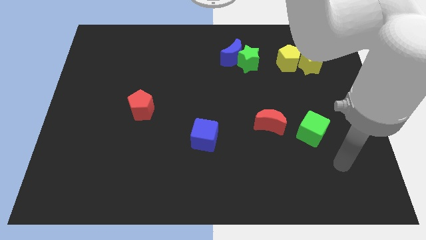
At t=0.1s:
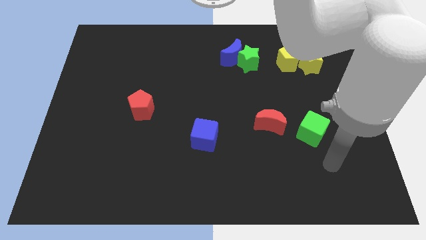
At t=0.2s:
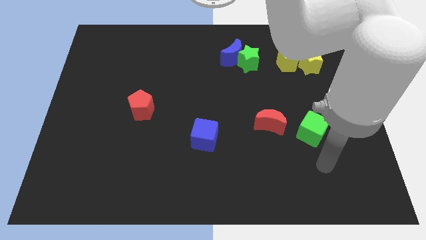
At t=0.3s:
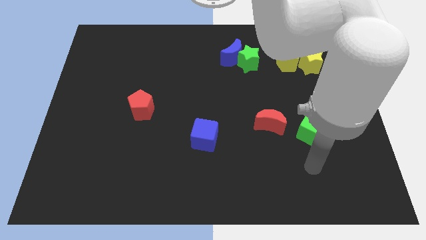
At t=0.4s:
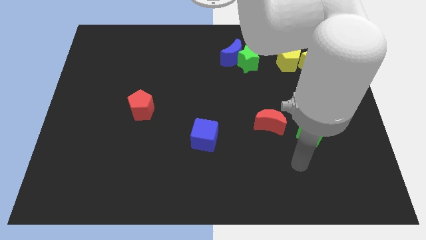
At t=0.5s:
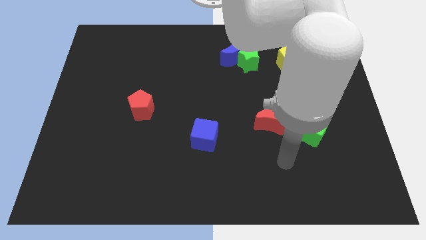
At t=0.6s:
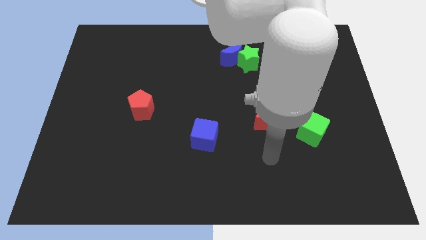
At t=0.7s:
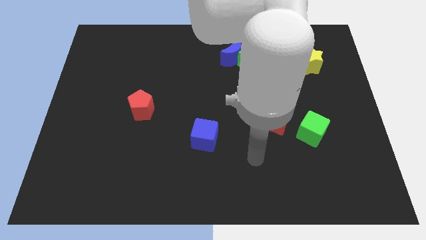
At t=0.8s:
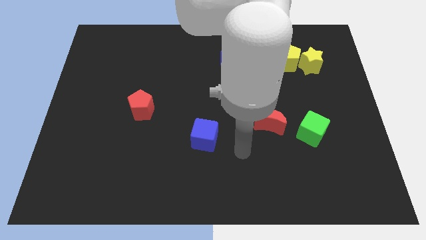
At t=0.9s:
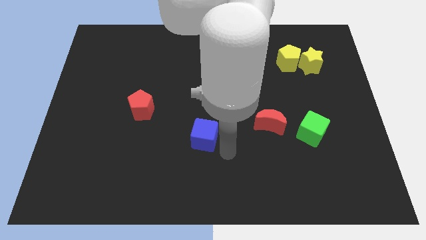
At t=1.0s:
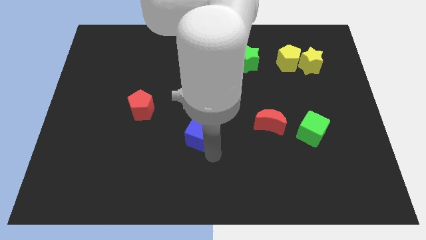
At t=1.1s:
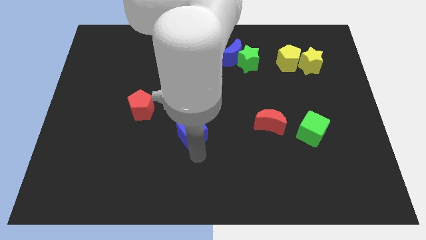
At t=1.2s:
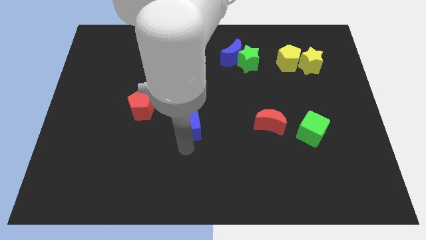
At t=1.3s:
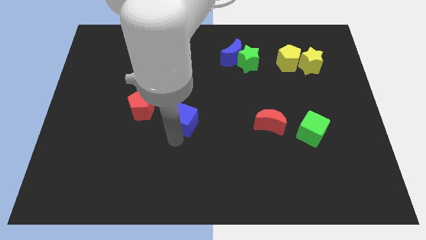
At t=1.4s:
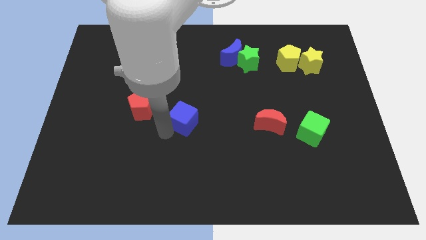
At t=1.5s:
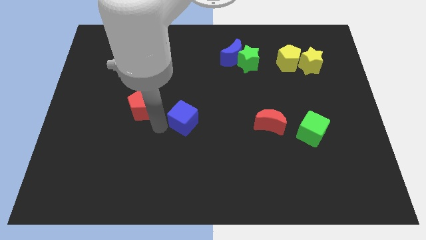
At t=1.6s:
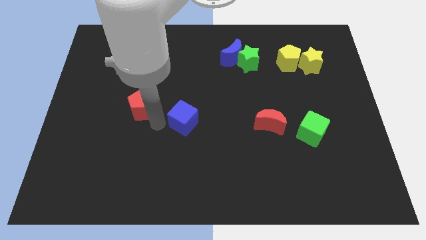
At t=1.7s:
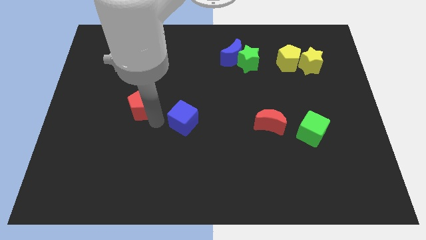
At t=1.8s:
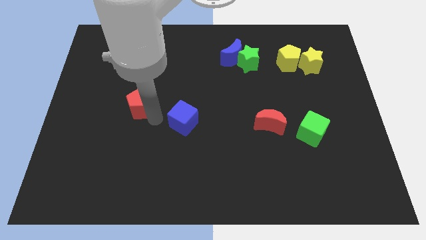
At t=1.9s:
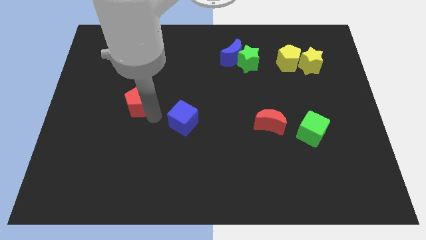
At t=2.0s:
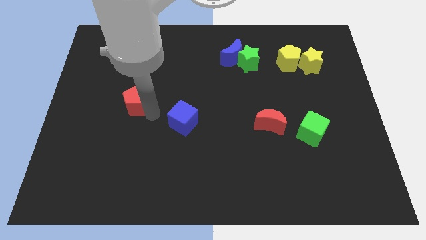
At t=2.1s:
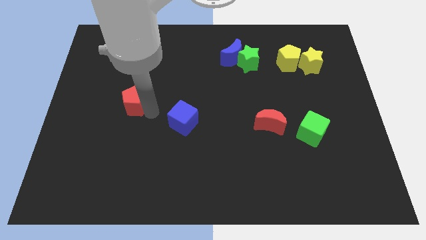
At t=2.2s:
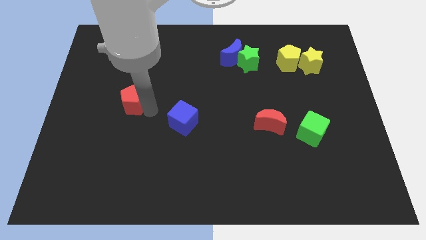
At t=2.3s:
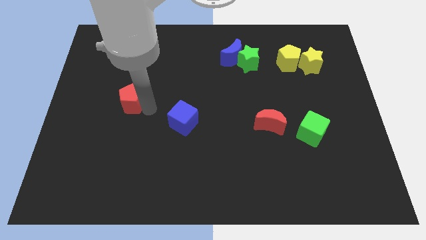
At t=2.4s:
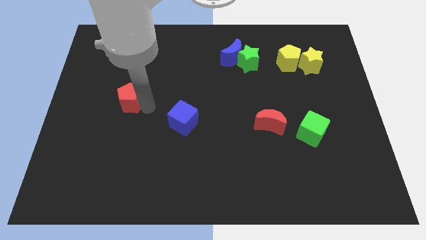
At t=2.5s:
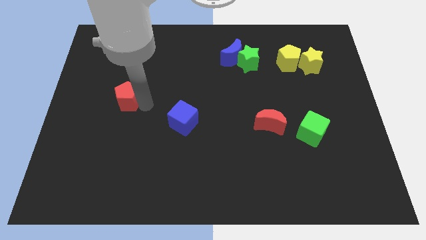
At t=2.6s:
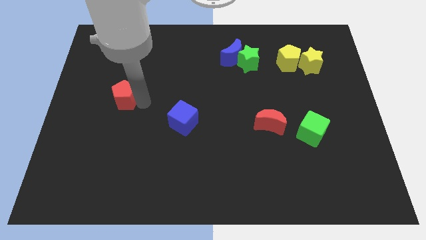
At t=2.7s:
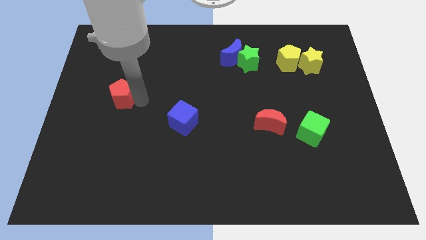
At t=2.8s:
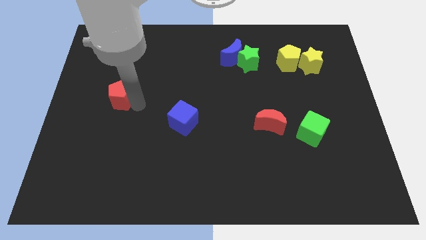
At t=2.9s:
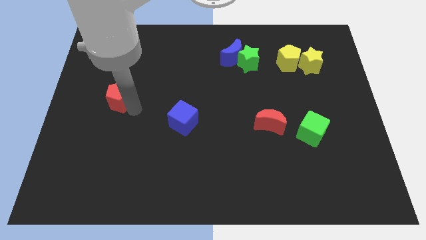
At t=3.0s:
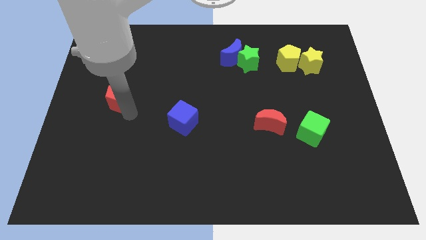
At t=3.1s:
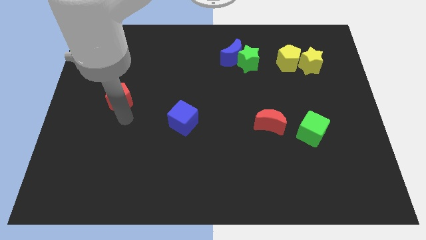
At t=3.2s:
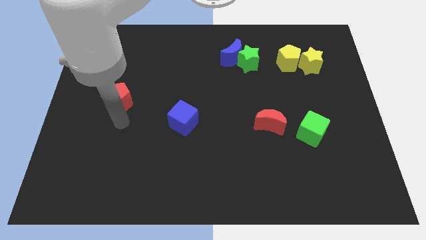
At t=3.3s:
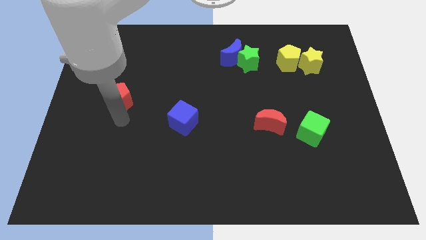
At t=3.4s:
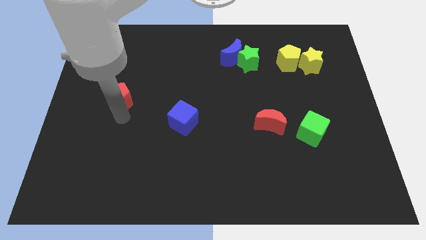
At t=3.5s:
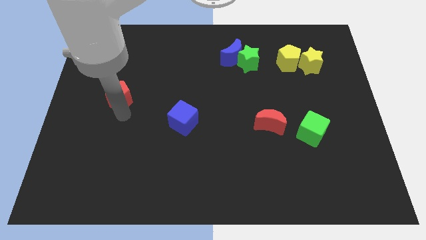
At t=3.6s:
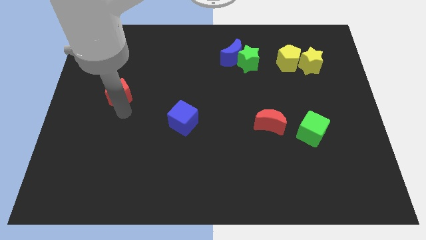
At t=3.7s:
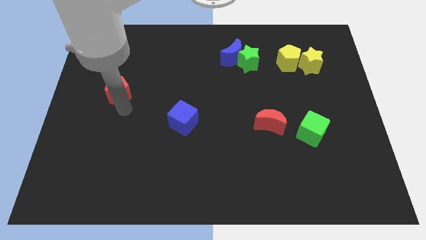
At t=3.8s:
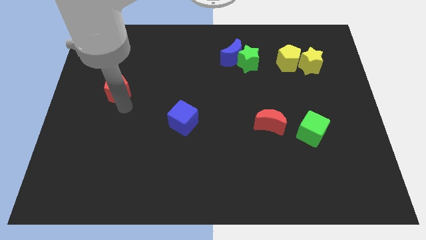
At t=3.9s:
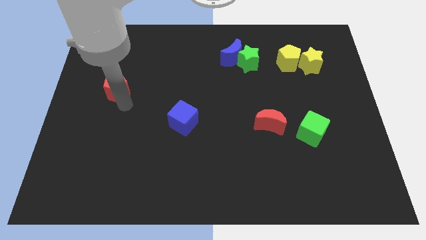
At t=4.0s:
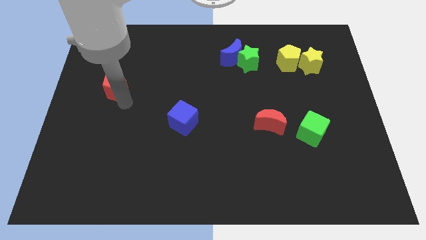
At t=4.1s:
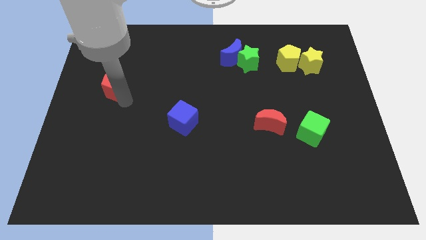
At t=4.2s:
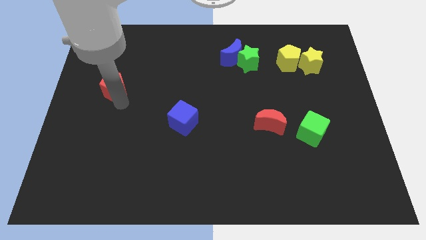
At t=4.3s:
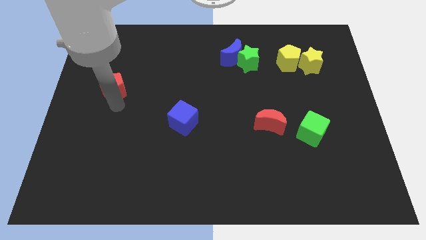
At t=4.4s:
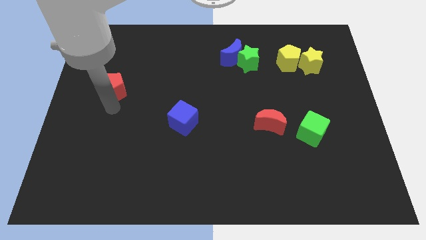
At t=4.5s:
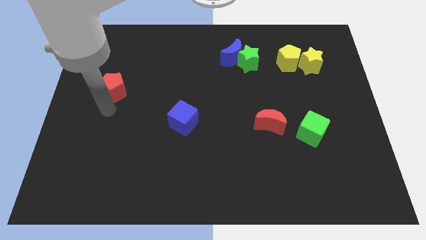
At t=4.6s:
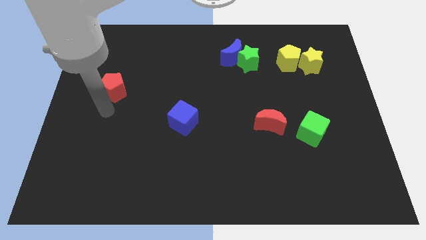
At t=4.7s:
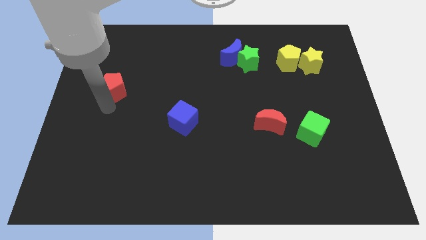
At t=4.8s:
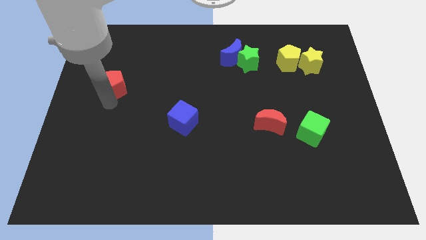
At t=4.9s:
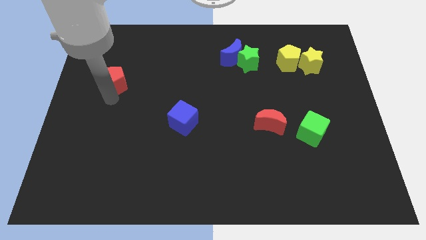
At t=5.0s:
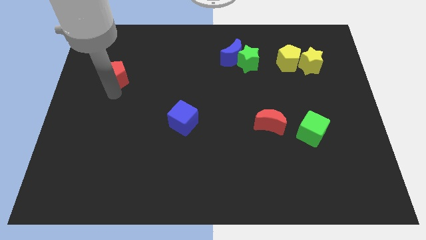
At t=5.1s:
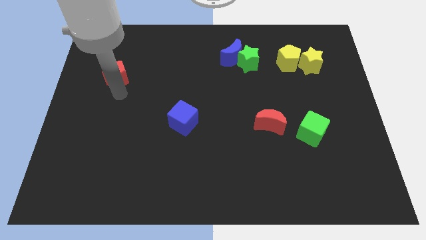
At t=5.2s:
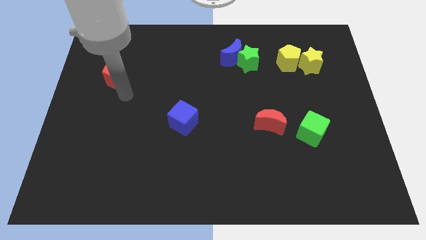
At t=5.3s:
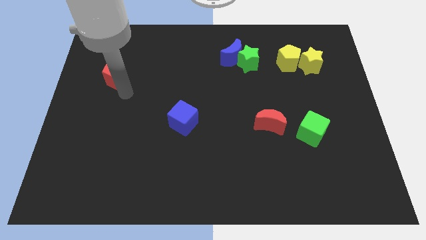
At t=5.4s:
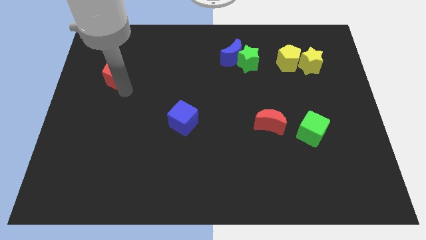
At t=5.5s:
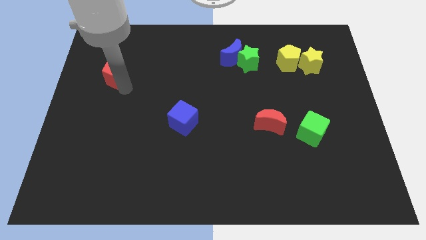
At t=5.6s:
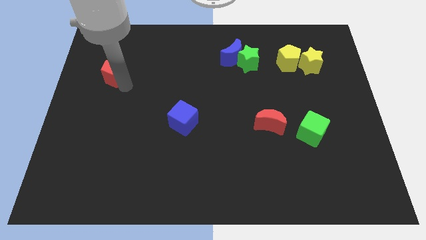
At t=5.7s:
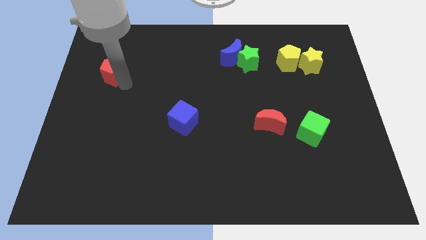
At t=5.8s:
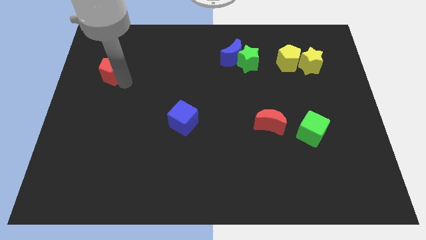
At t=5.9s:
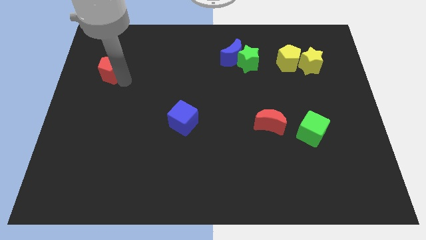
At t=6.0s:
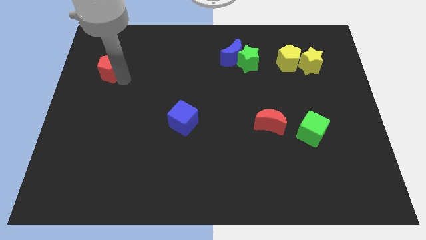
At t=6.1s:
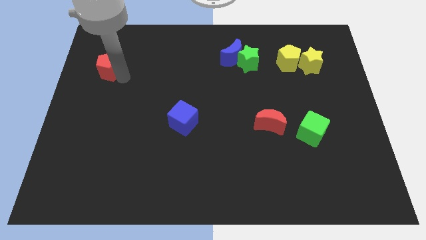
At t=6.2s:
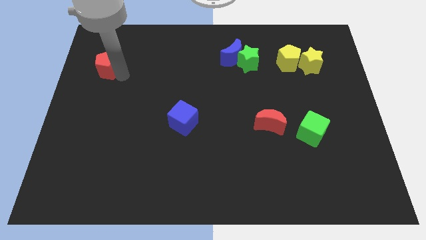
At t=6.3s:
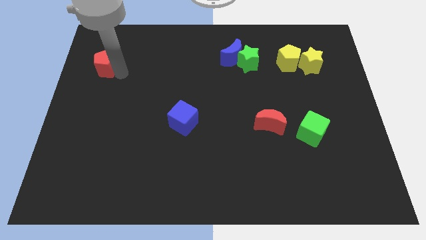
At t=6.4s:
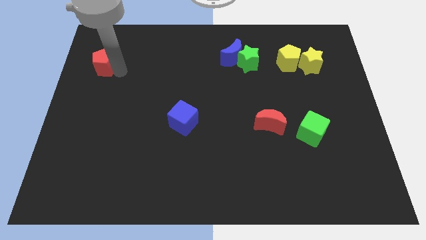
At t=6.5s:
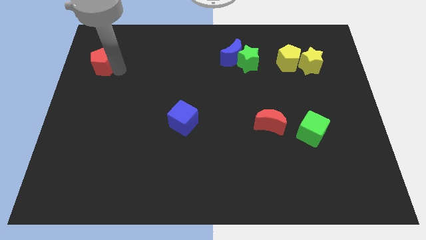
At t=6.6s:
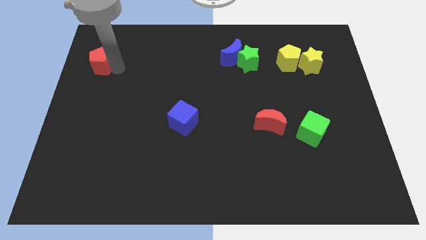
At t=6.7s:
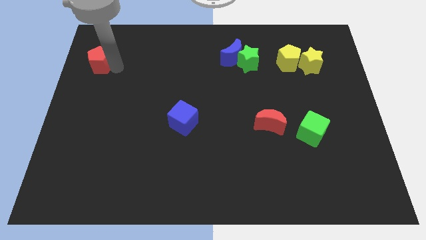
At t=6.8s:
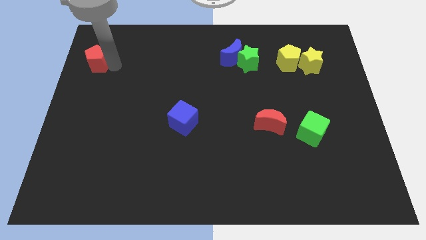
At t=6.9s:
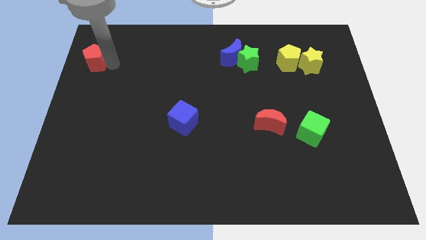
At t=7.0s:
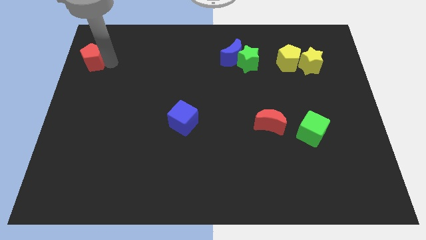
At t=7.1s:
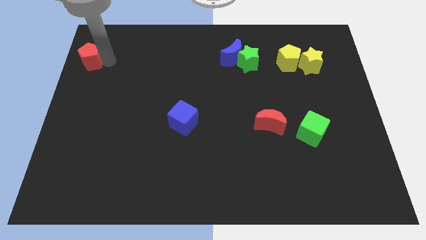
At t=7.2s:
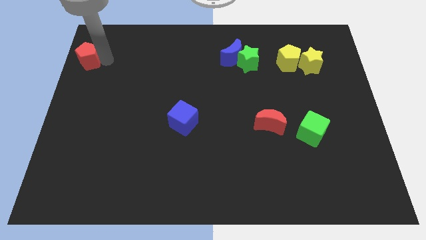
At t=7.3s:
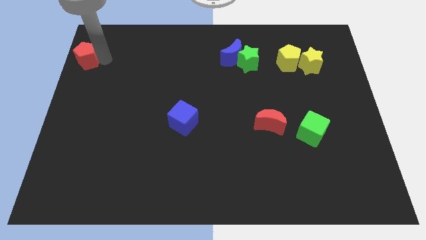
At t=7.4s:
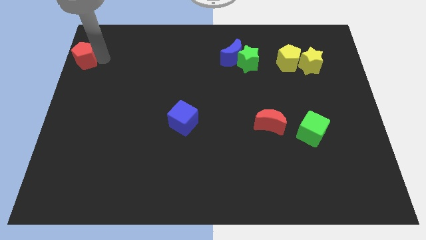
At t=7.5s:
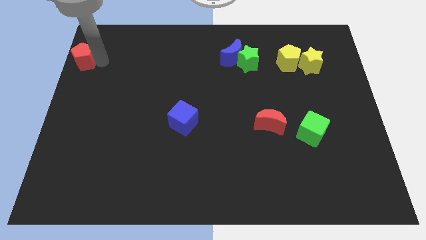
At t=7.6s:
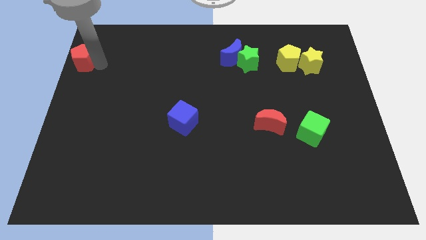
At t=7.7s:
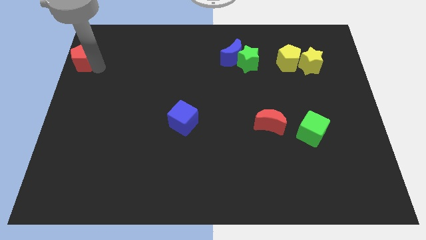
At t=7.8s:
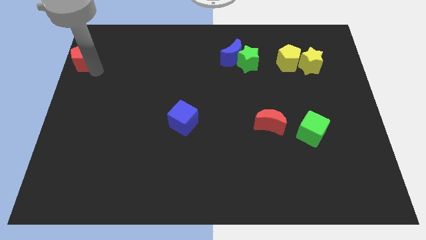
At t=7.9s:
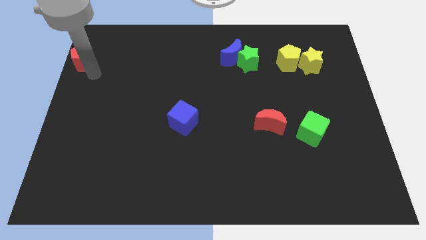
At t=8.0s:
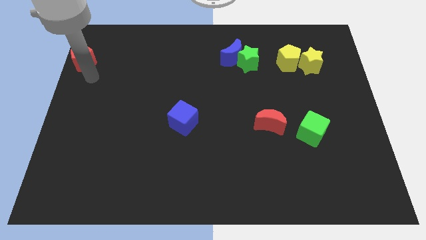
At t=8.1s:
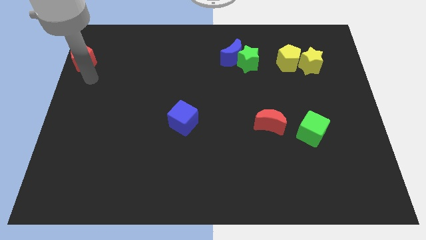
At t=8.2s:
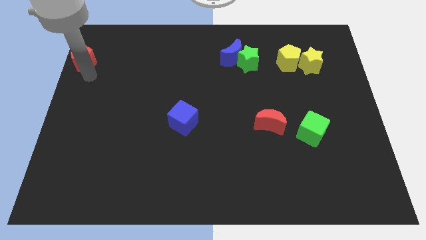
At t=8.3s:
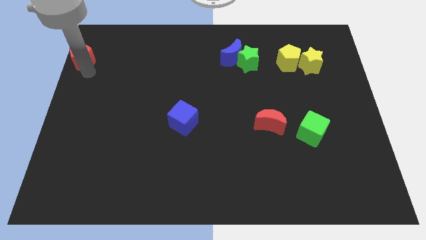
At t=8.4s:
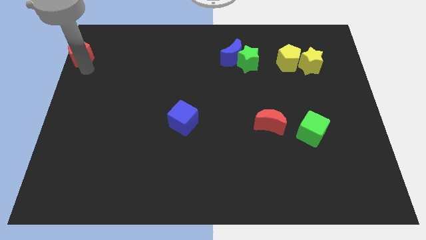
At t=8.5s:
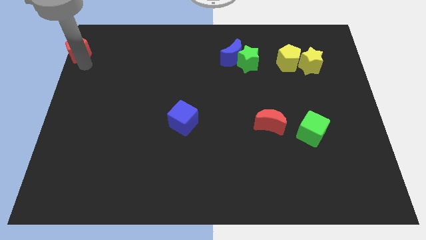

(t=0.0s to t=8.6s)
move the red pentagon to the upper left corner
